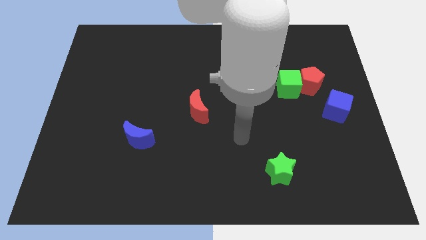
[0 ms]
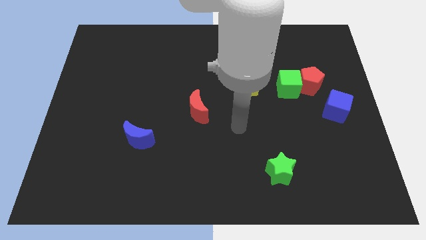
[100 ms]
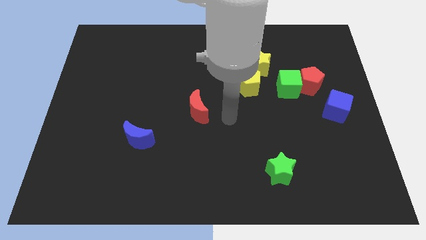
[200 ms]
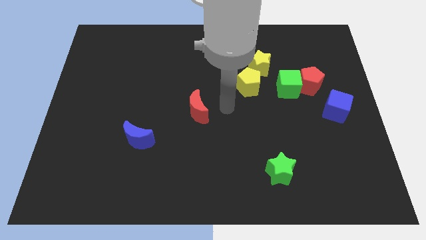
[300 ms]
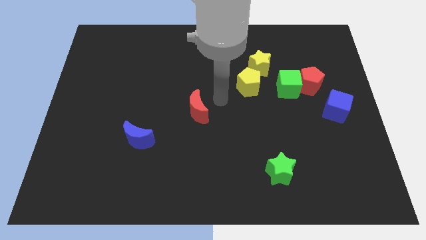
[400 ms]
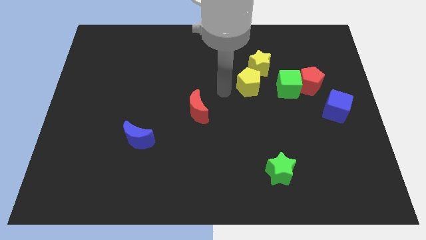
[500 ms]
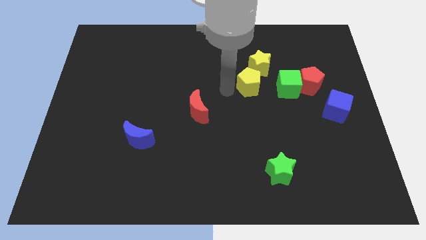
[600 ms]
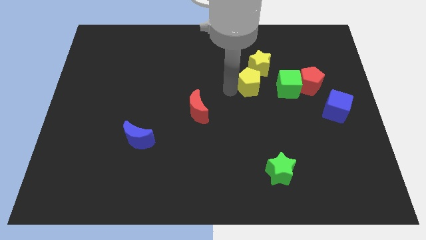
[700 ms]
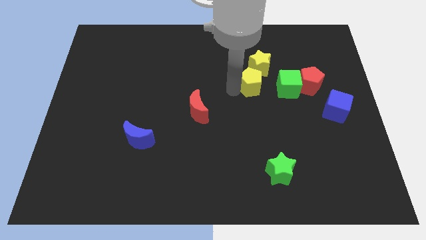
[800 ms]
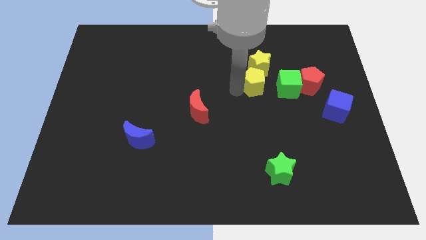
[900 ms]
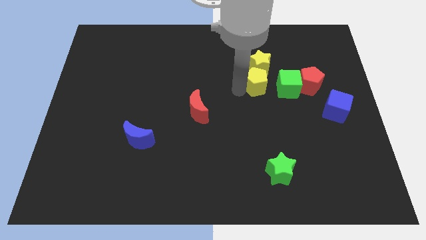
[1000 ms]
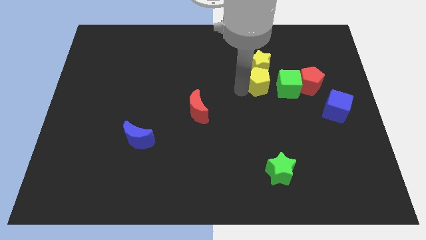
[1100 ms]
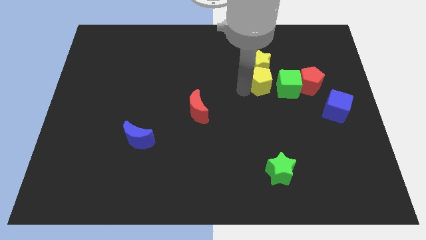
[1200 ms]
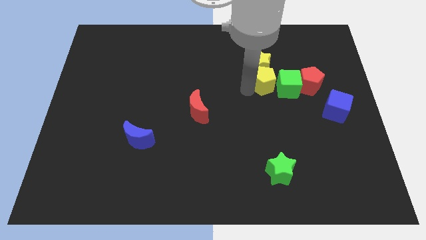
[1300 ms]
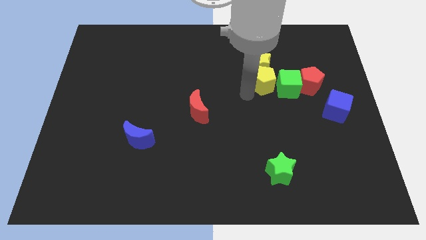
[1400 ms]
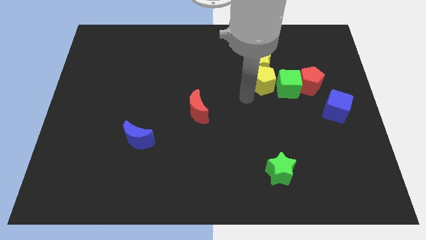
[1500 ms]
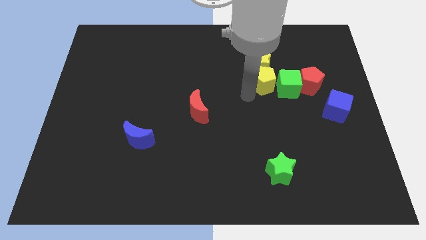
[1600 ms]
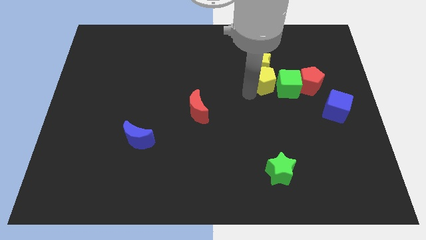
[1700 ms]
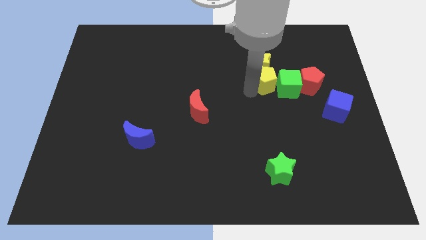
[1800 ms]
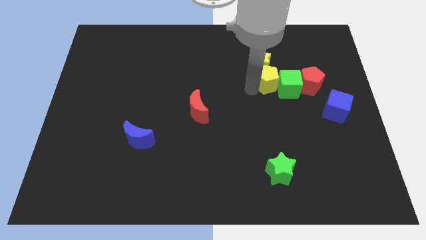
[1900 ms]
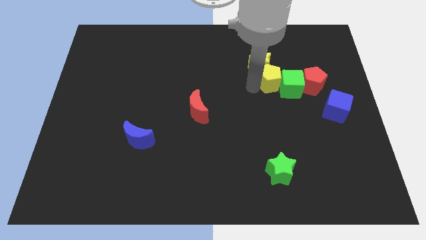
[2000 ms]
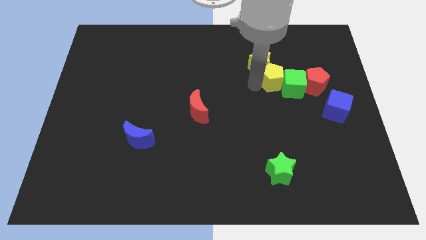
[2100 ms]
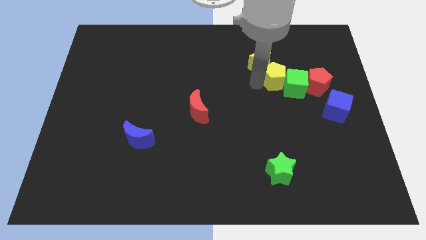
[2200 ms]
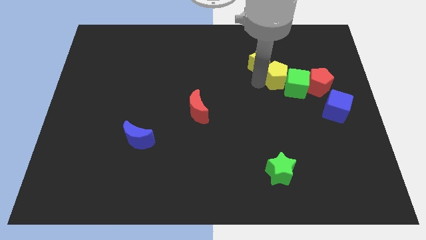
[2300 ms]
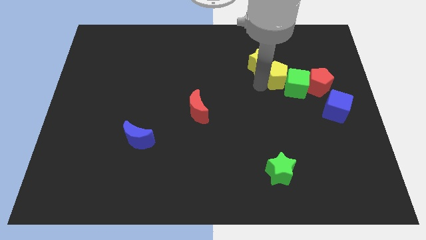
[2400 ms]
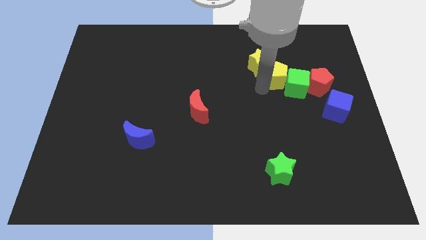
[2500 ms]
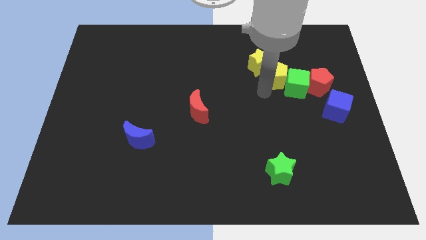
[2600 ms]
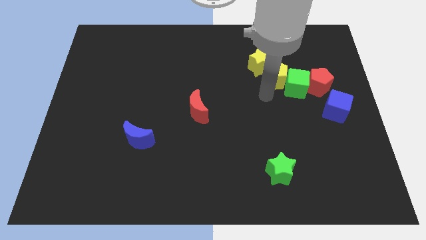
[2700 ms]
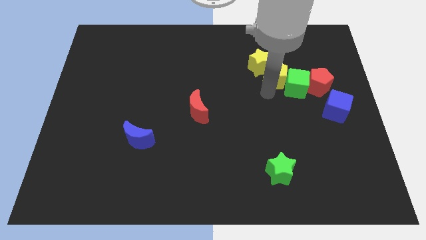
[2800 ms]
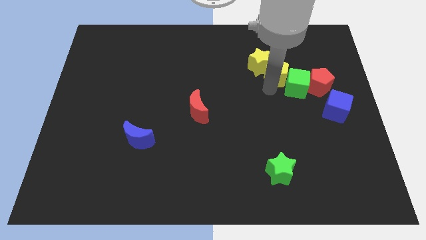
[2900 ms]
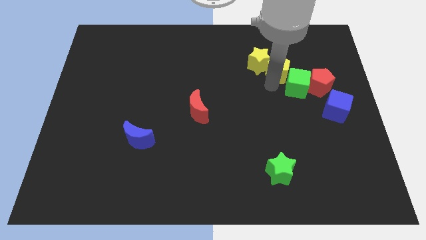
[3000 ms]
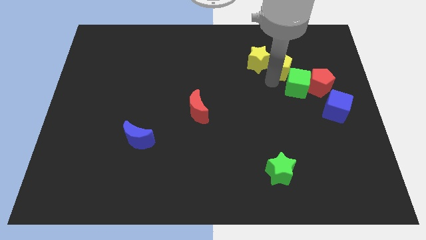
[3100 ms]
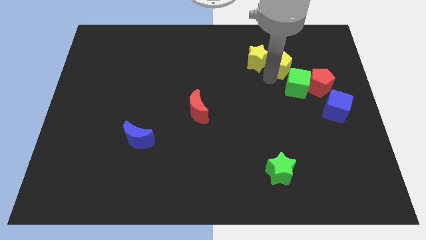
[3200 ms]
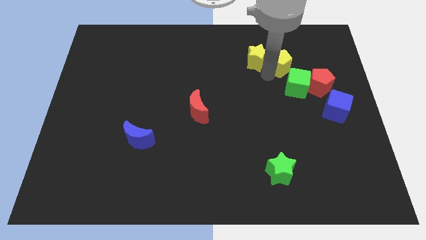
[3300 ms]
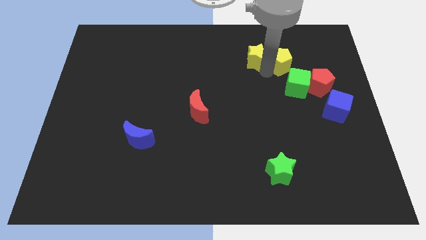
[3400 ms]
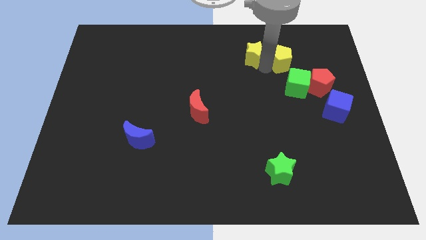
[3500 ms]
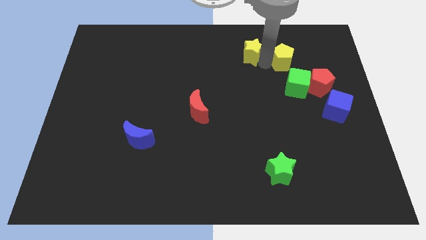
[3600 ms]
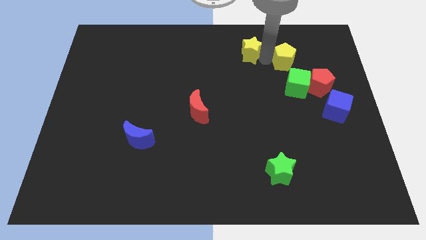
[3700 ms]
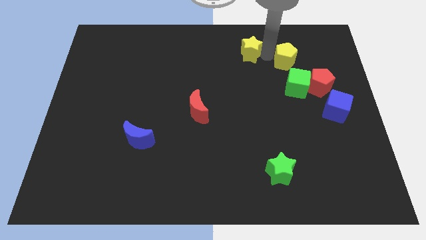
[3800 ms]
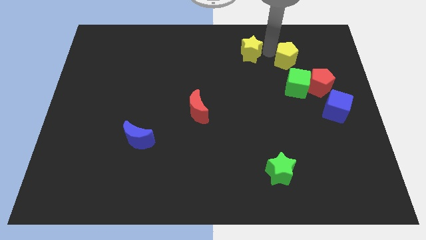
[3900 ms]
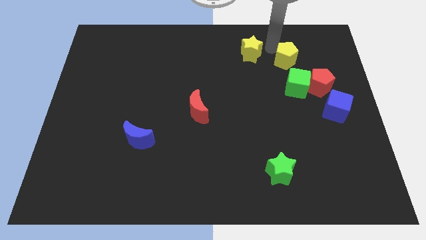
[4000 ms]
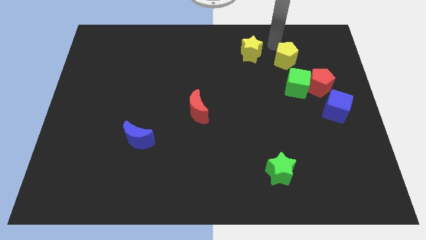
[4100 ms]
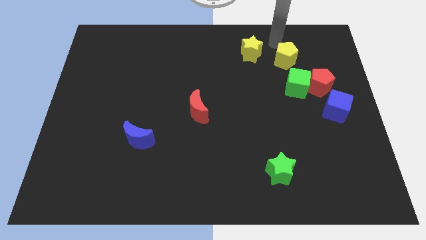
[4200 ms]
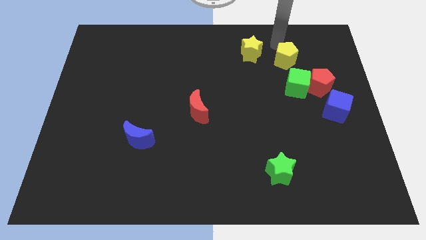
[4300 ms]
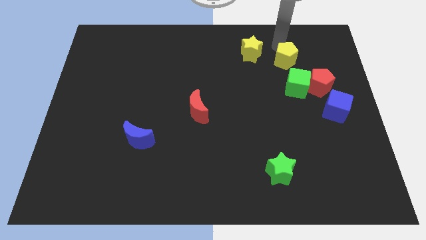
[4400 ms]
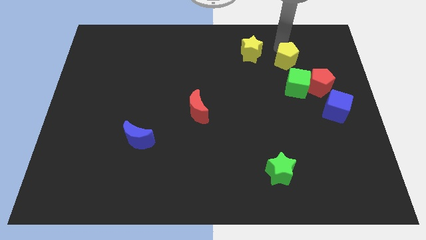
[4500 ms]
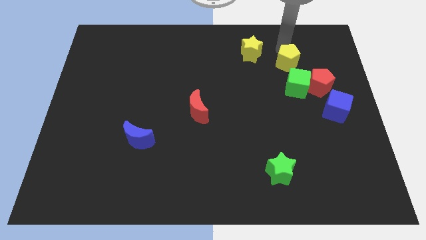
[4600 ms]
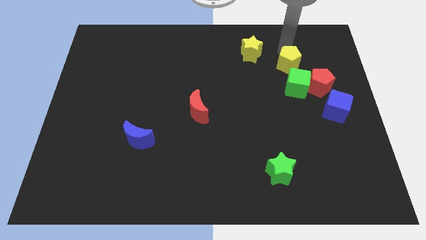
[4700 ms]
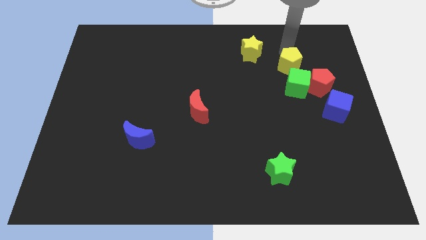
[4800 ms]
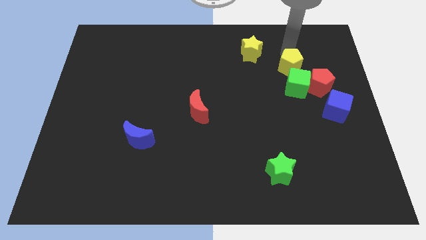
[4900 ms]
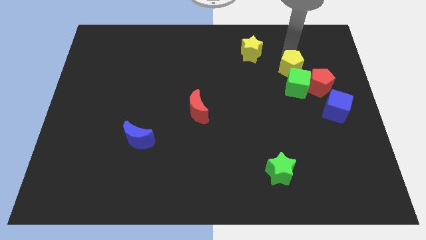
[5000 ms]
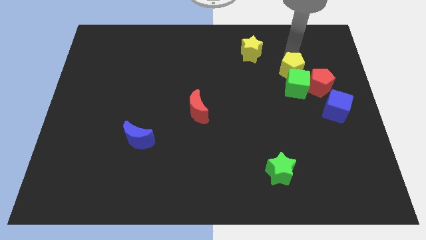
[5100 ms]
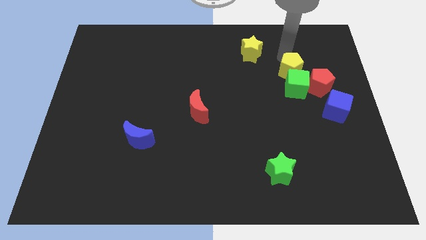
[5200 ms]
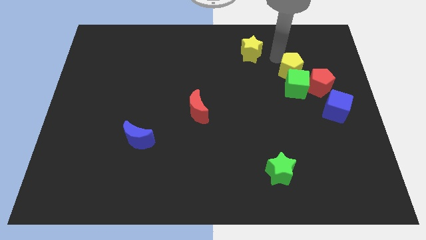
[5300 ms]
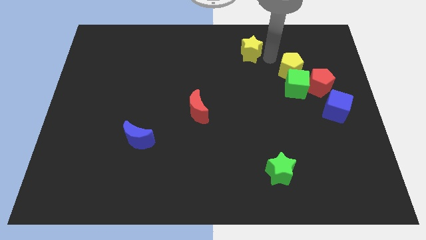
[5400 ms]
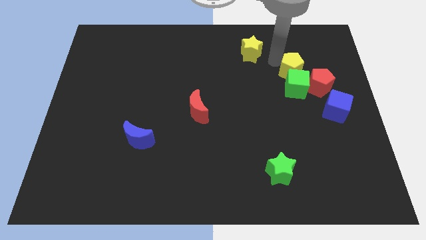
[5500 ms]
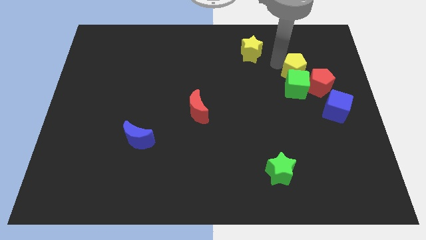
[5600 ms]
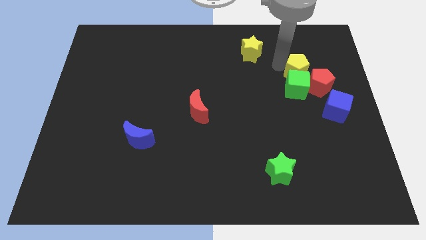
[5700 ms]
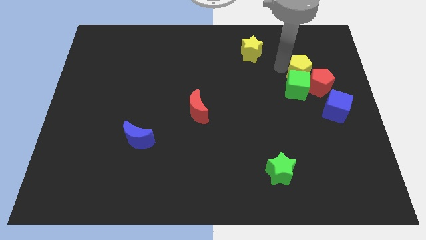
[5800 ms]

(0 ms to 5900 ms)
put the yellow pentagon next to the red pentagon
